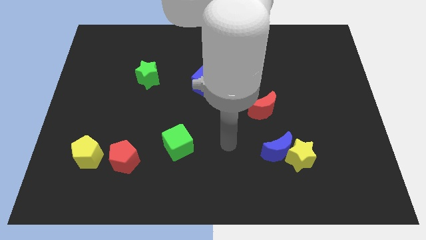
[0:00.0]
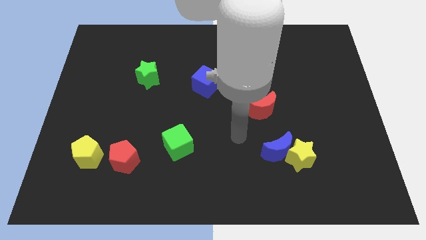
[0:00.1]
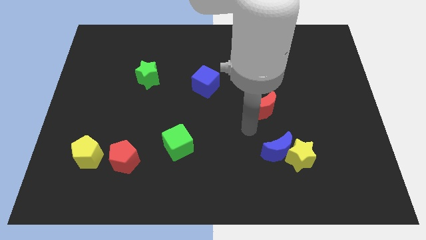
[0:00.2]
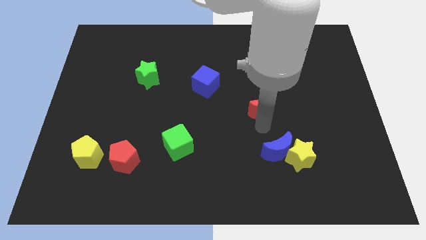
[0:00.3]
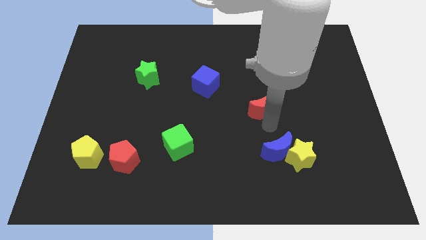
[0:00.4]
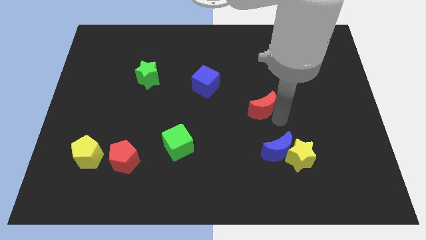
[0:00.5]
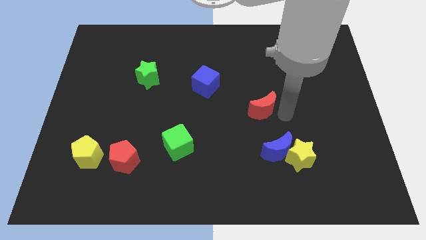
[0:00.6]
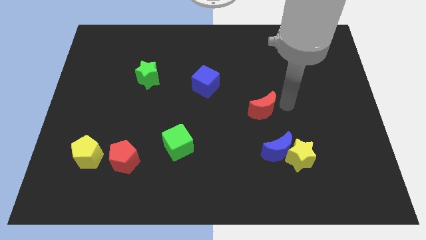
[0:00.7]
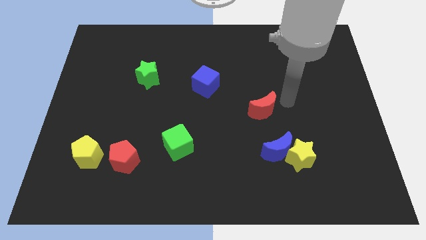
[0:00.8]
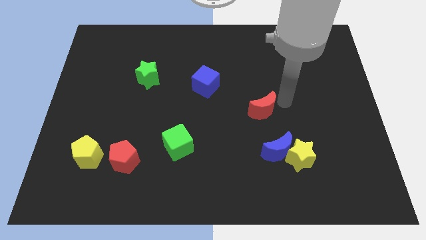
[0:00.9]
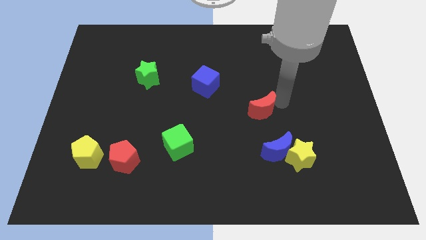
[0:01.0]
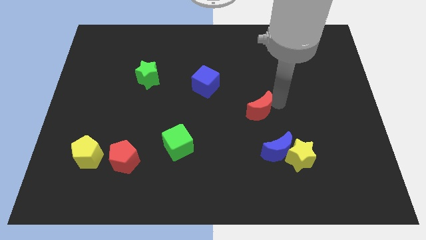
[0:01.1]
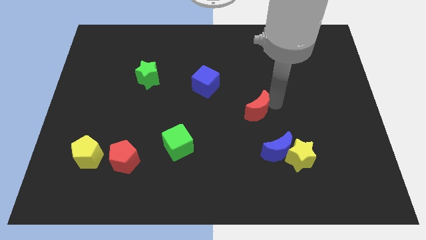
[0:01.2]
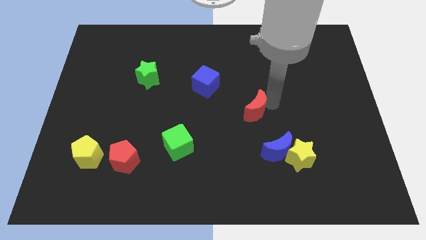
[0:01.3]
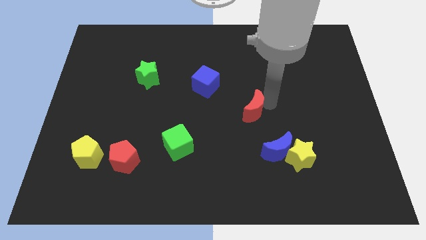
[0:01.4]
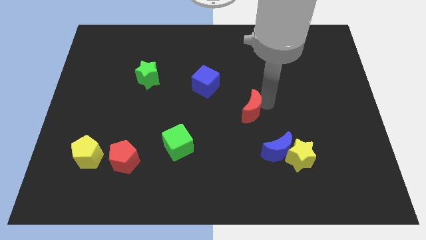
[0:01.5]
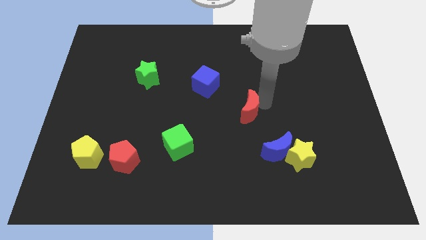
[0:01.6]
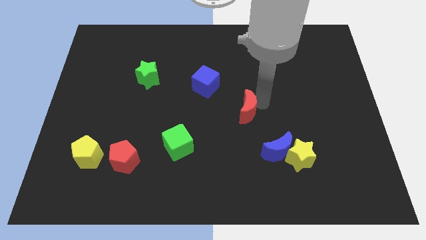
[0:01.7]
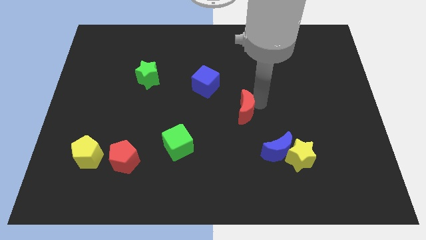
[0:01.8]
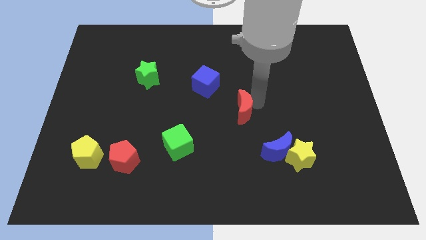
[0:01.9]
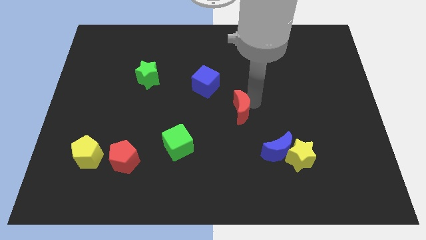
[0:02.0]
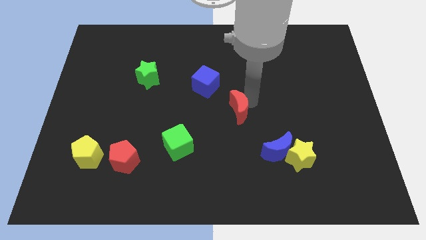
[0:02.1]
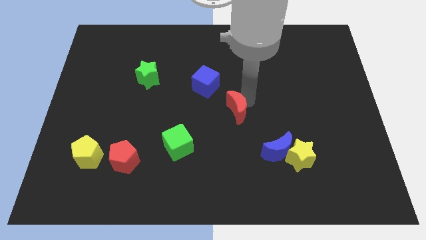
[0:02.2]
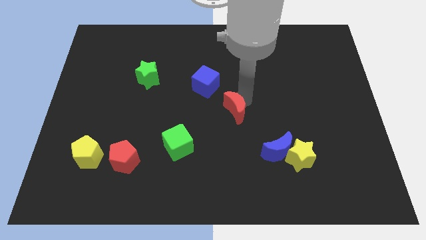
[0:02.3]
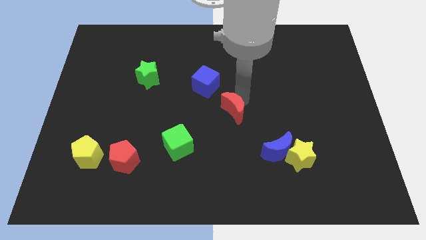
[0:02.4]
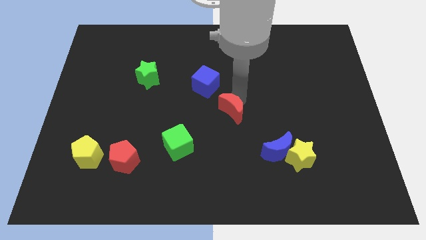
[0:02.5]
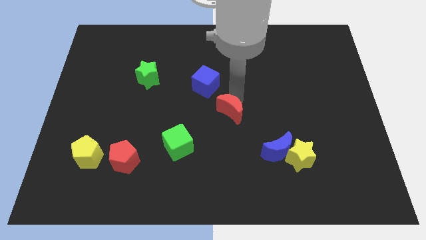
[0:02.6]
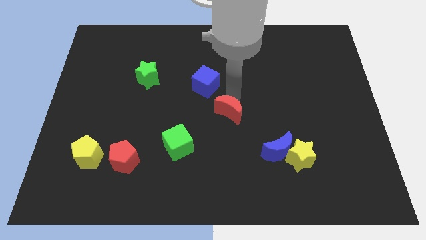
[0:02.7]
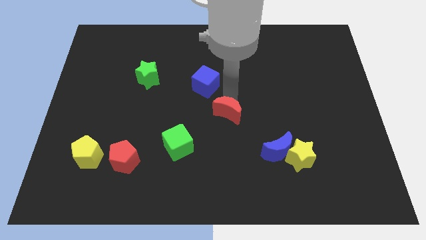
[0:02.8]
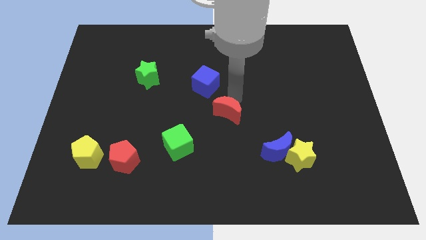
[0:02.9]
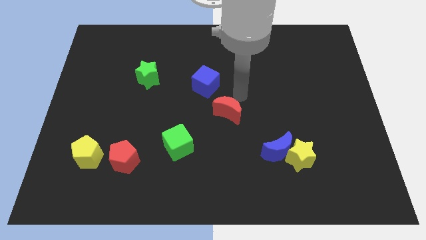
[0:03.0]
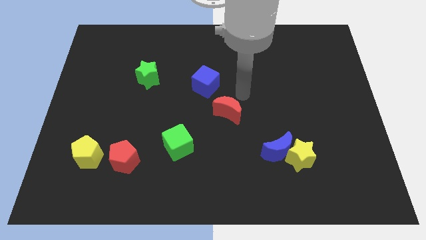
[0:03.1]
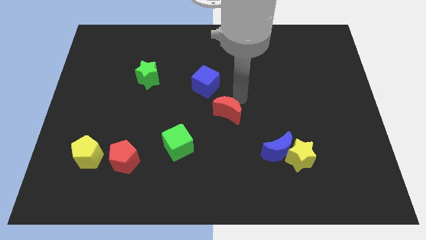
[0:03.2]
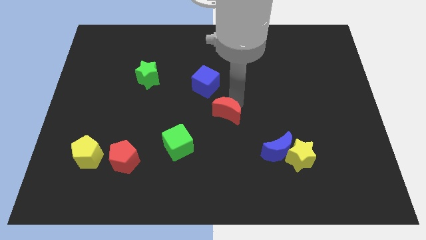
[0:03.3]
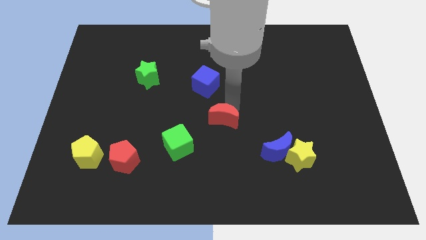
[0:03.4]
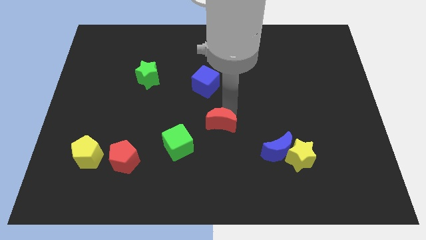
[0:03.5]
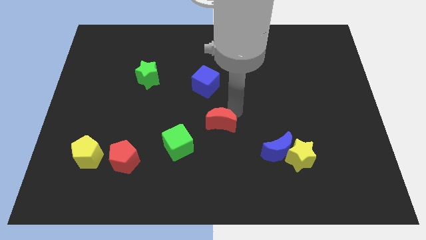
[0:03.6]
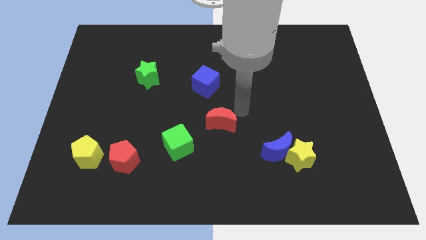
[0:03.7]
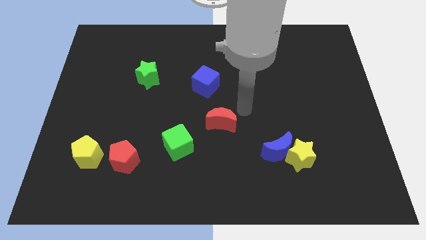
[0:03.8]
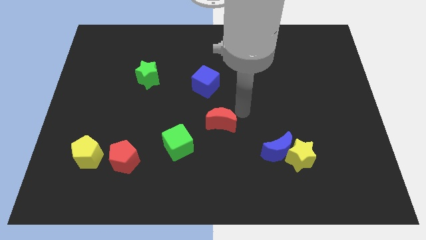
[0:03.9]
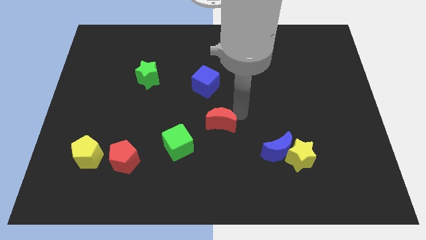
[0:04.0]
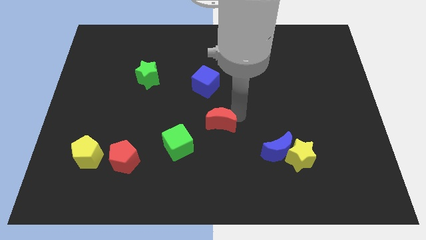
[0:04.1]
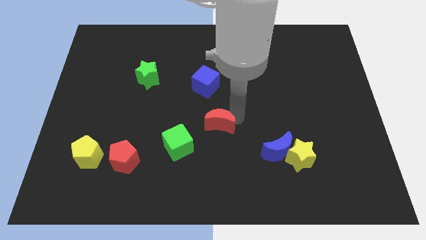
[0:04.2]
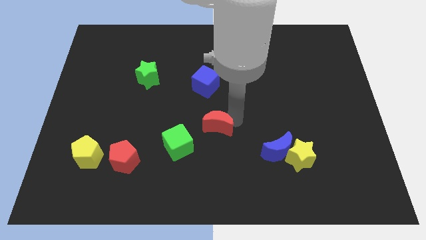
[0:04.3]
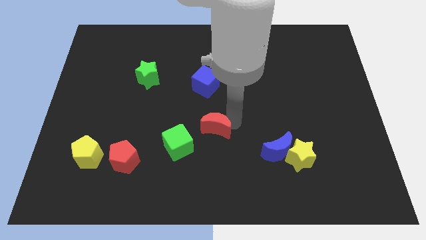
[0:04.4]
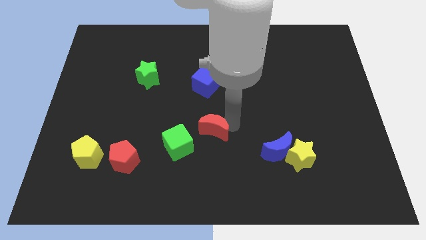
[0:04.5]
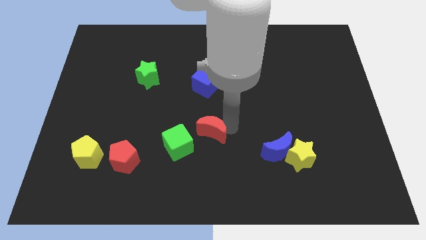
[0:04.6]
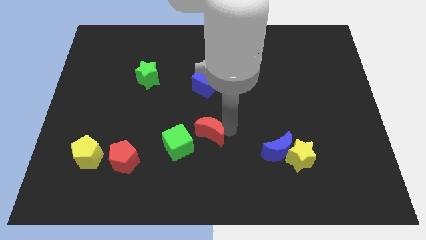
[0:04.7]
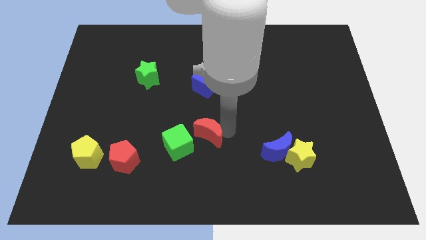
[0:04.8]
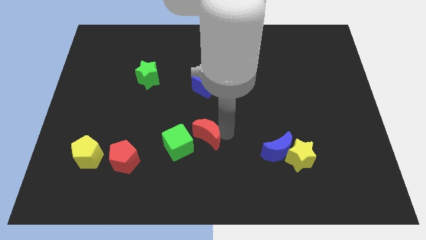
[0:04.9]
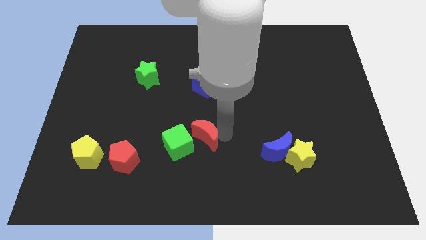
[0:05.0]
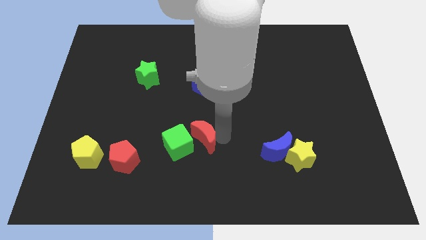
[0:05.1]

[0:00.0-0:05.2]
push the red moon towards the green cube

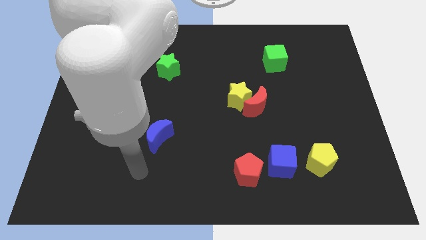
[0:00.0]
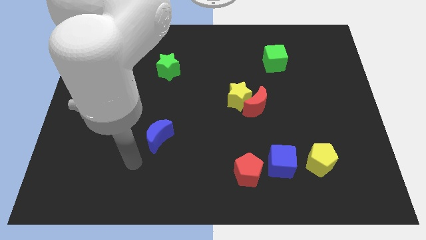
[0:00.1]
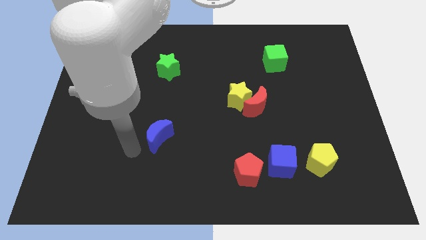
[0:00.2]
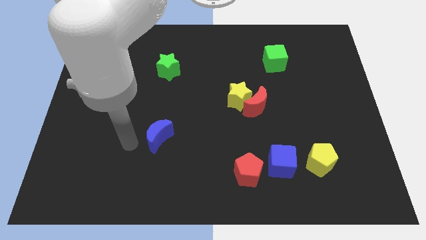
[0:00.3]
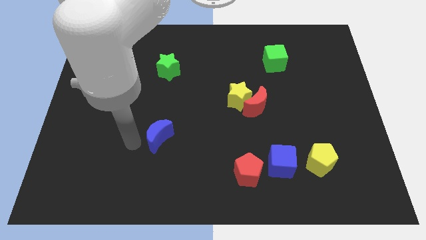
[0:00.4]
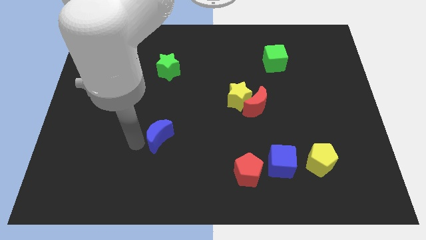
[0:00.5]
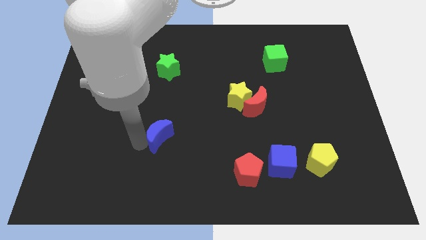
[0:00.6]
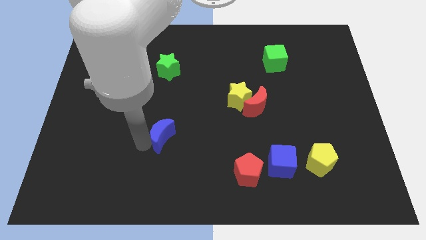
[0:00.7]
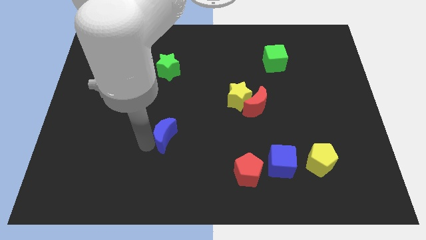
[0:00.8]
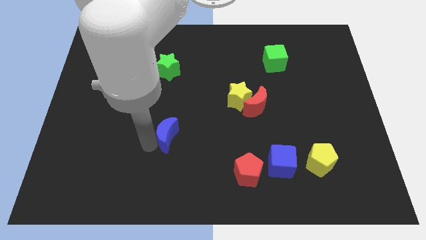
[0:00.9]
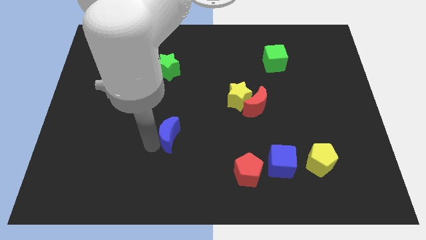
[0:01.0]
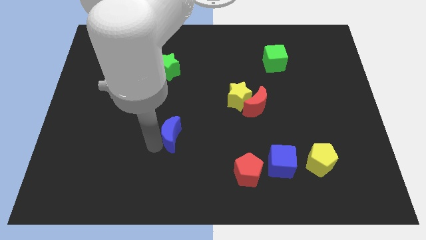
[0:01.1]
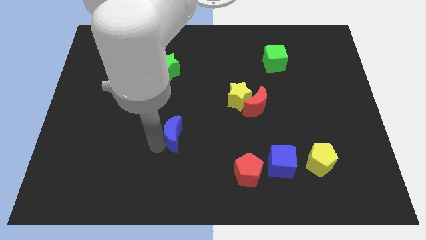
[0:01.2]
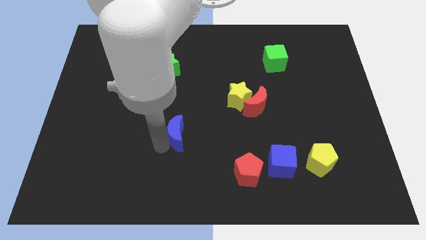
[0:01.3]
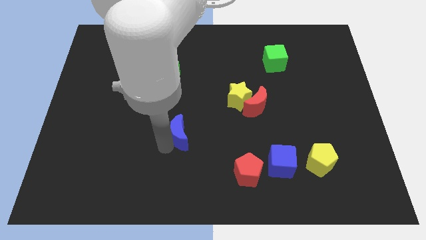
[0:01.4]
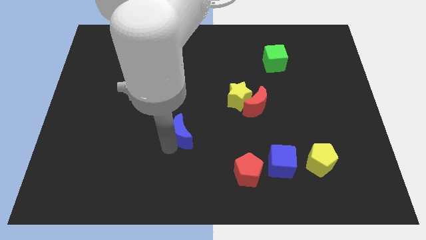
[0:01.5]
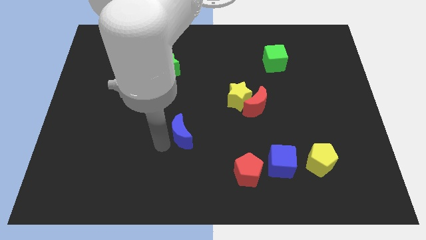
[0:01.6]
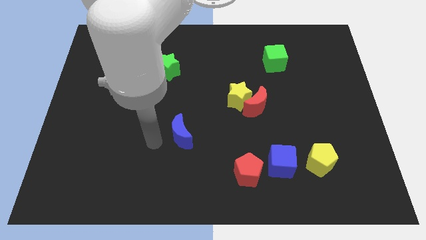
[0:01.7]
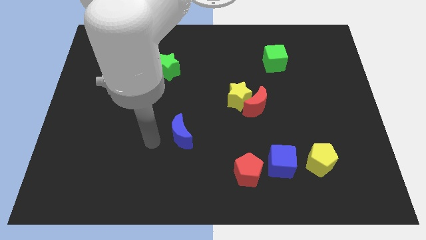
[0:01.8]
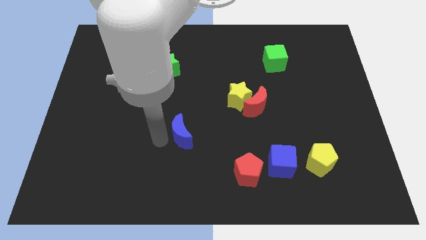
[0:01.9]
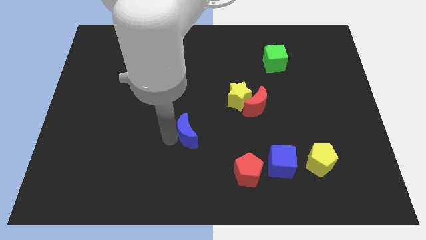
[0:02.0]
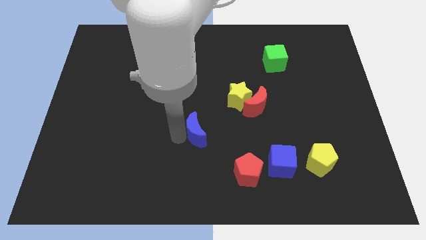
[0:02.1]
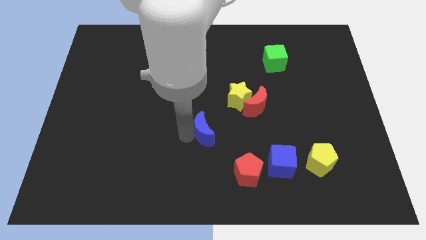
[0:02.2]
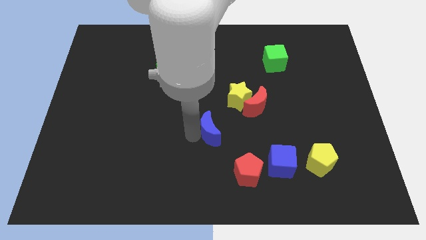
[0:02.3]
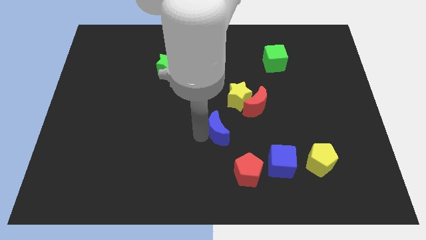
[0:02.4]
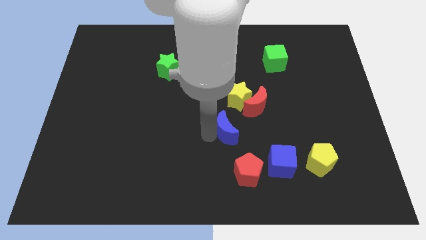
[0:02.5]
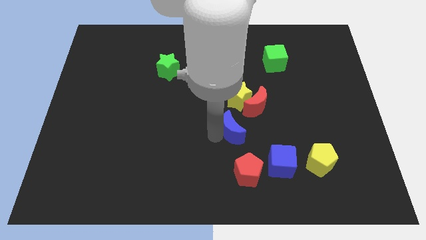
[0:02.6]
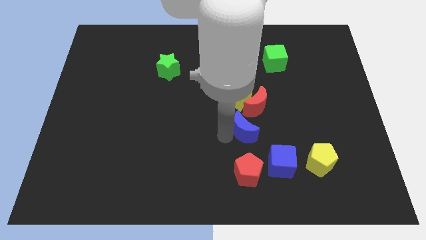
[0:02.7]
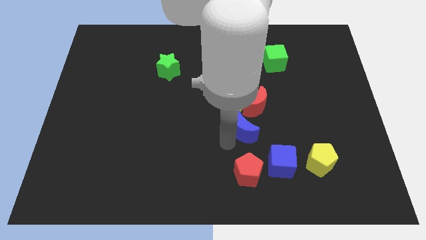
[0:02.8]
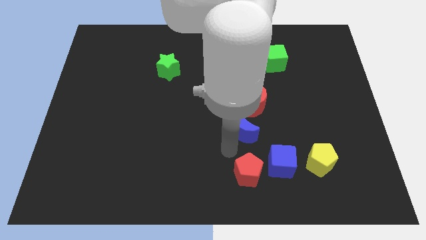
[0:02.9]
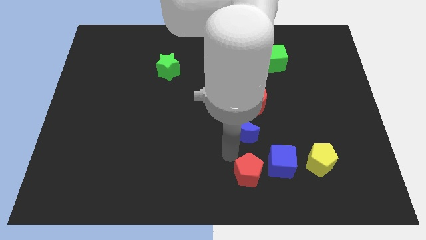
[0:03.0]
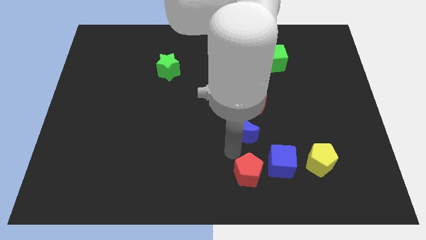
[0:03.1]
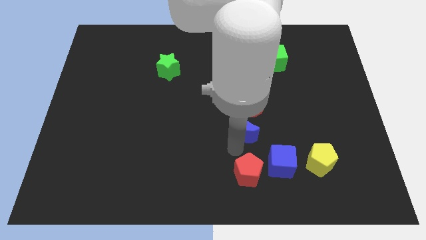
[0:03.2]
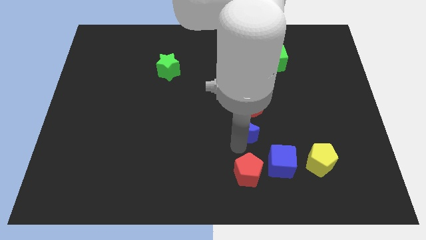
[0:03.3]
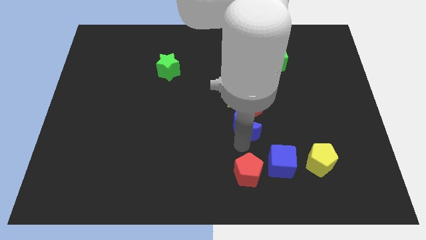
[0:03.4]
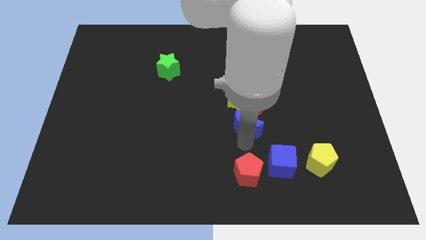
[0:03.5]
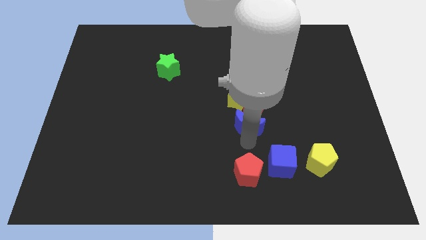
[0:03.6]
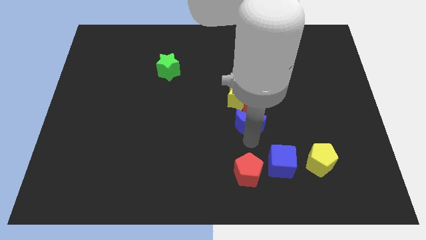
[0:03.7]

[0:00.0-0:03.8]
push the blue moon next to the red moon
